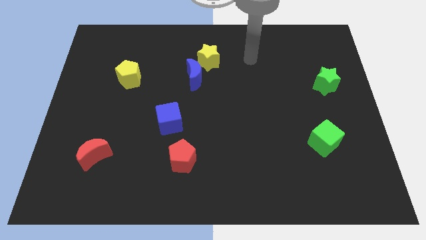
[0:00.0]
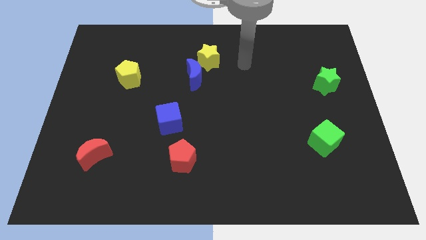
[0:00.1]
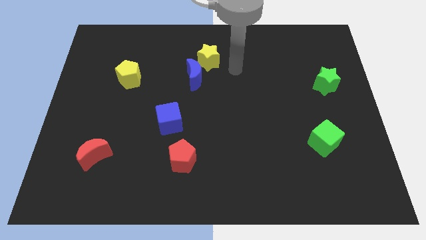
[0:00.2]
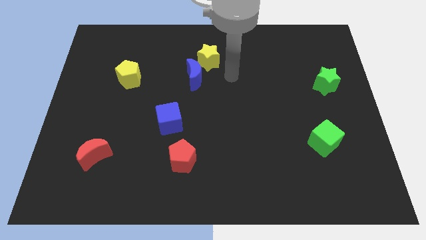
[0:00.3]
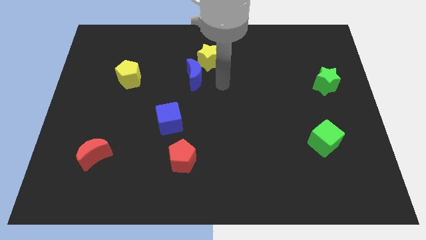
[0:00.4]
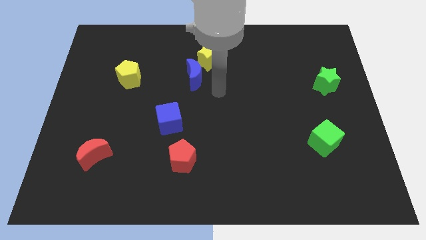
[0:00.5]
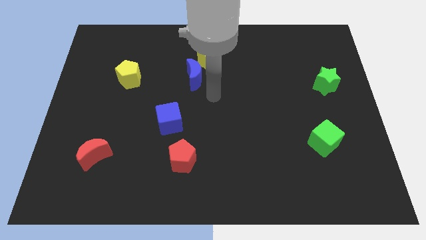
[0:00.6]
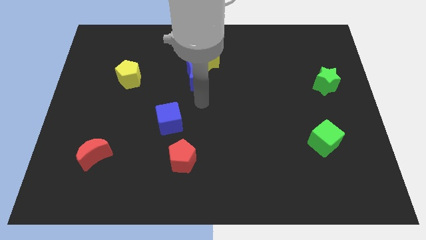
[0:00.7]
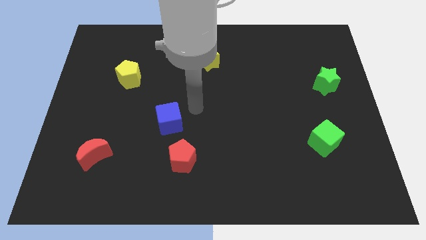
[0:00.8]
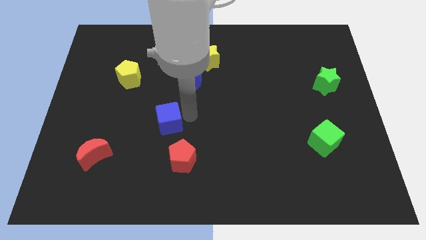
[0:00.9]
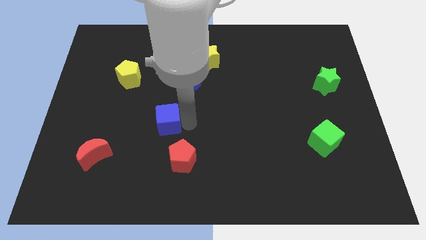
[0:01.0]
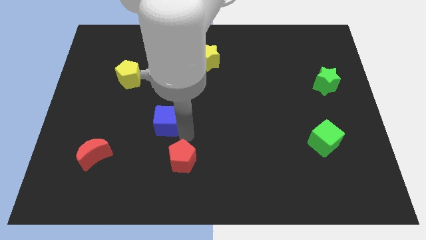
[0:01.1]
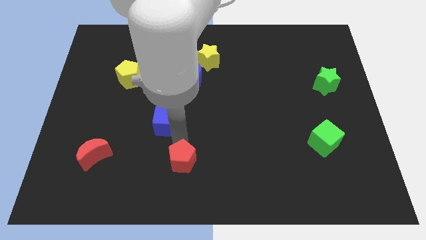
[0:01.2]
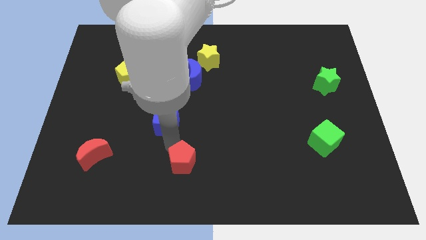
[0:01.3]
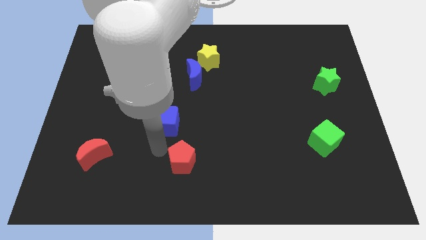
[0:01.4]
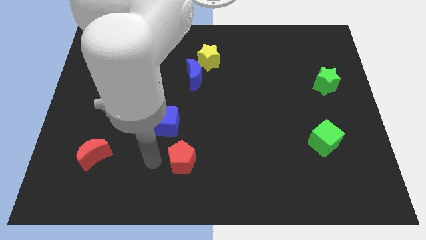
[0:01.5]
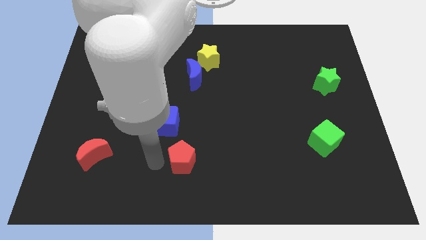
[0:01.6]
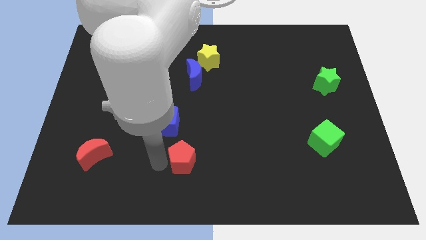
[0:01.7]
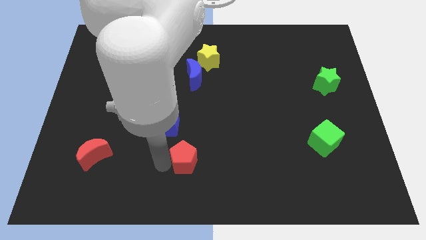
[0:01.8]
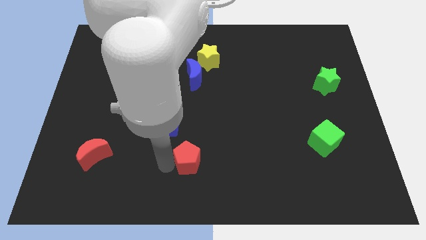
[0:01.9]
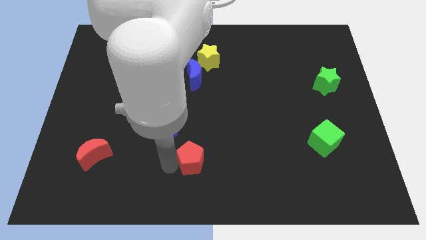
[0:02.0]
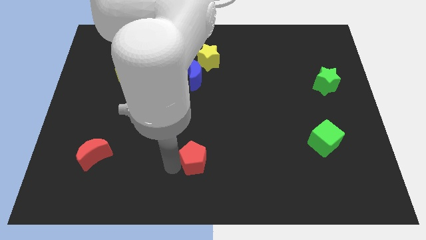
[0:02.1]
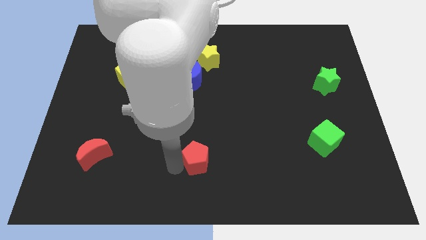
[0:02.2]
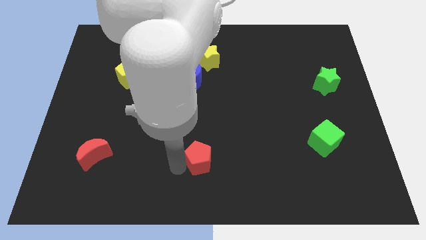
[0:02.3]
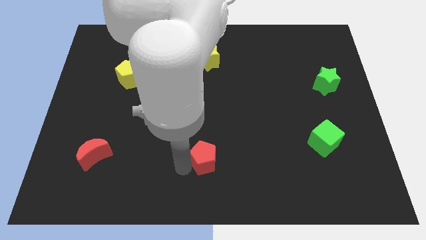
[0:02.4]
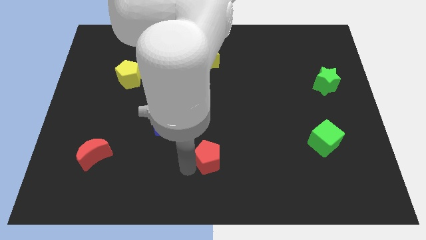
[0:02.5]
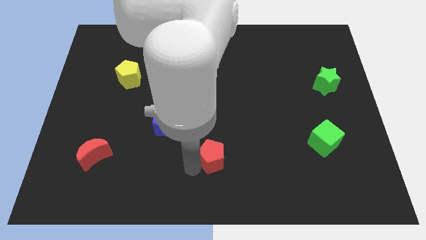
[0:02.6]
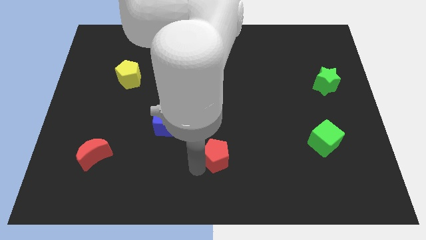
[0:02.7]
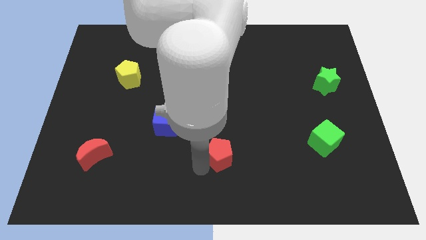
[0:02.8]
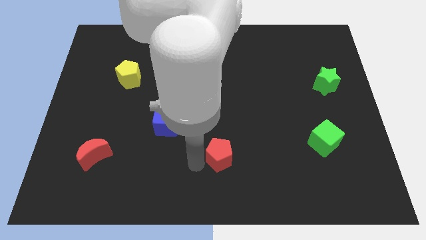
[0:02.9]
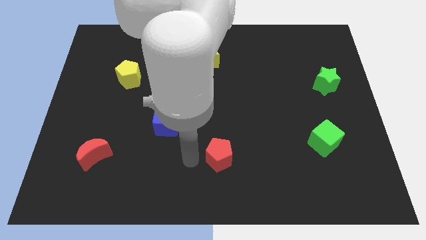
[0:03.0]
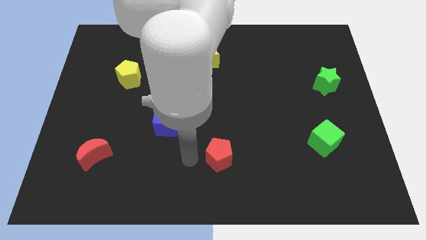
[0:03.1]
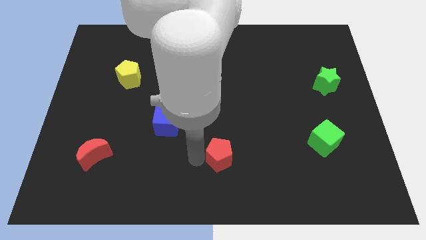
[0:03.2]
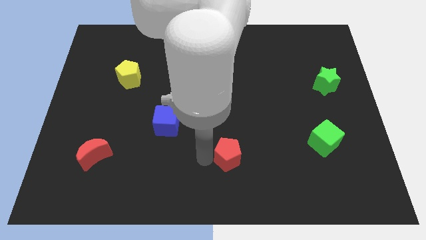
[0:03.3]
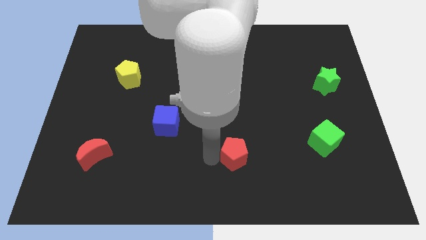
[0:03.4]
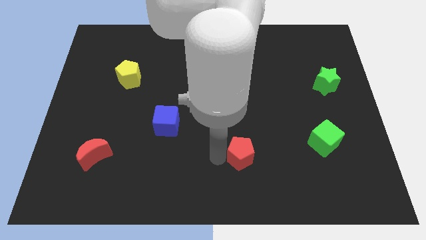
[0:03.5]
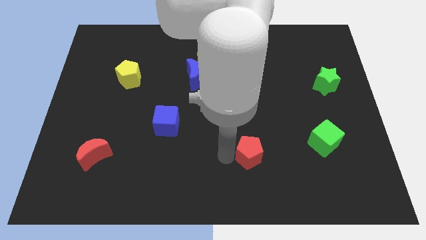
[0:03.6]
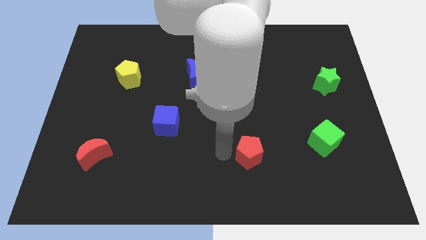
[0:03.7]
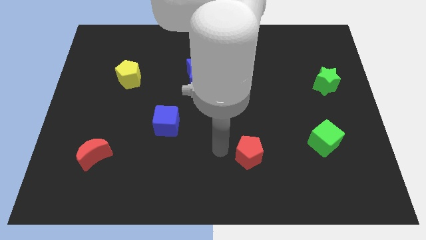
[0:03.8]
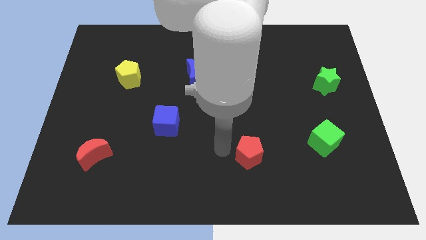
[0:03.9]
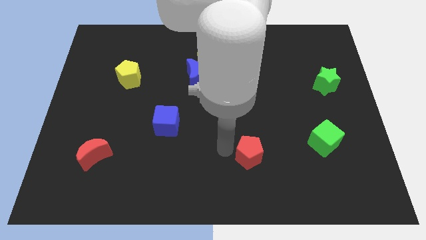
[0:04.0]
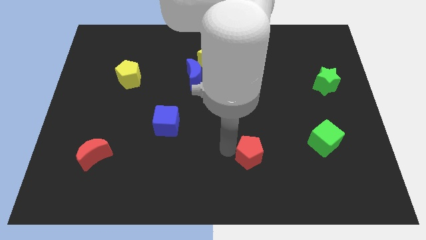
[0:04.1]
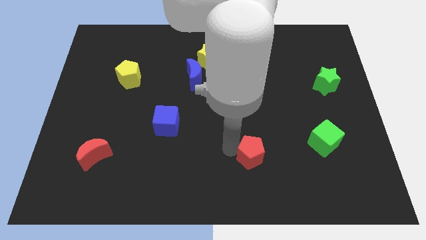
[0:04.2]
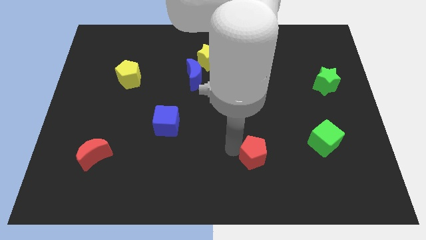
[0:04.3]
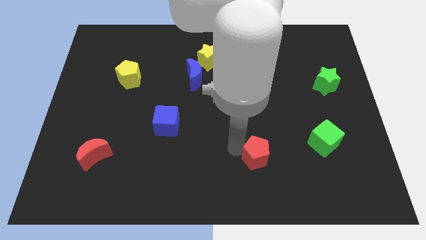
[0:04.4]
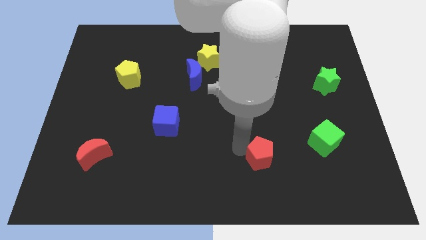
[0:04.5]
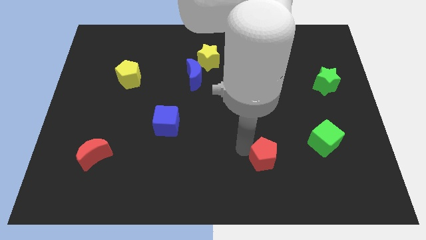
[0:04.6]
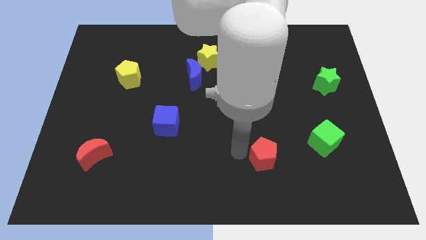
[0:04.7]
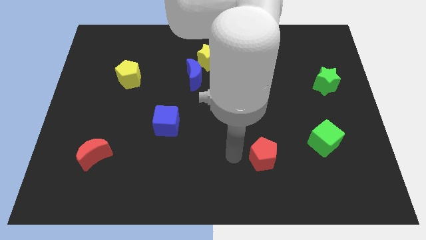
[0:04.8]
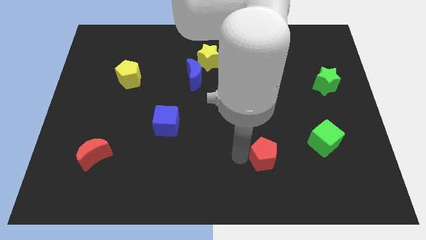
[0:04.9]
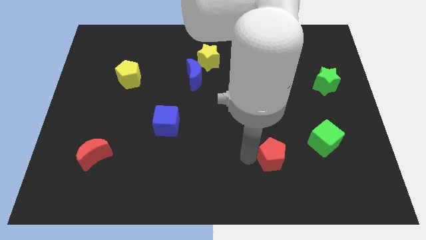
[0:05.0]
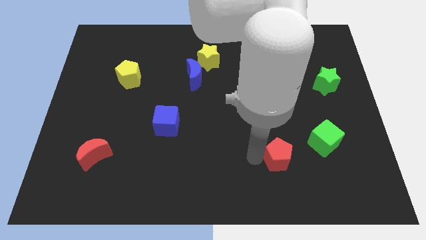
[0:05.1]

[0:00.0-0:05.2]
move the red pentagon to the right

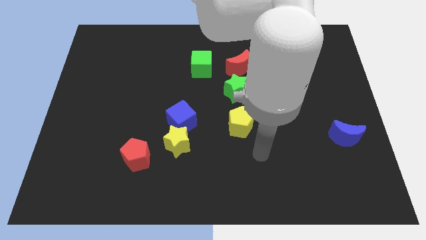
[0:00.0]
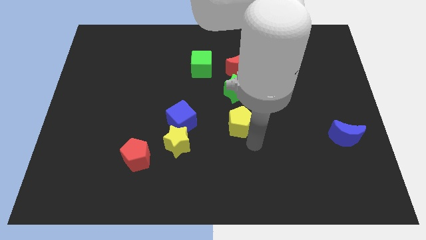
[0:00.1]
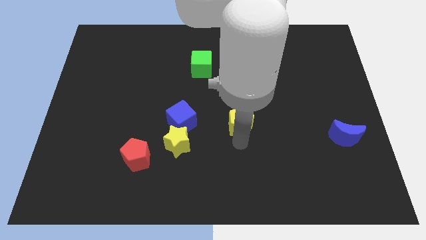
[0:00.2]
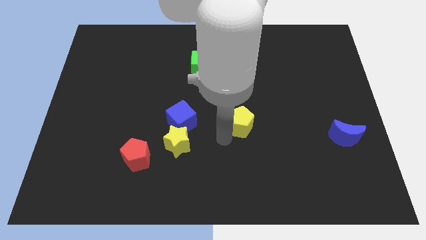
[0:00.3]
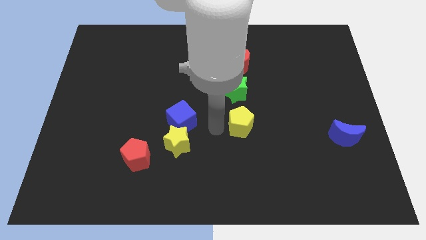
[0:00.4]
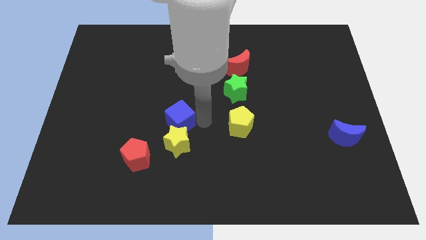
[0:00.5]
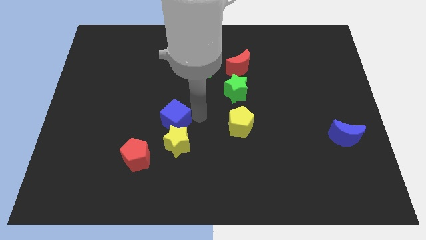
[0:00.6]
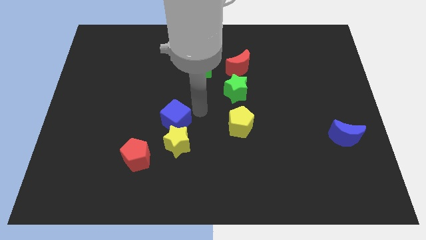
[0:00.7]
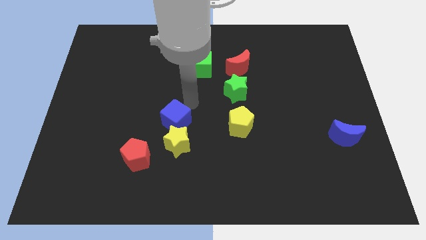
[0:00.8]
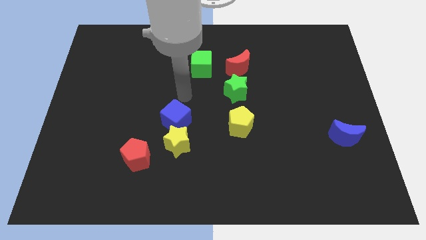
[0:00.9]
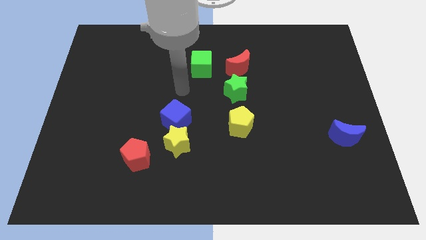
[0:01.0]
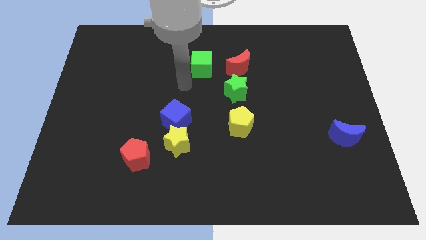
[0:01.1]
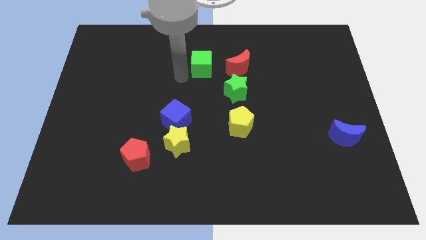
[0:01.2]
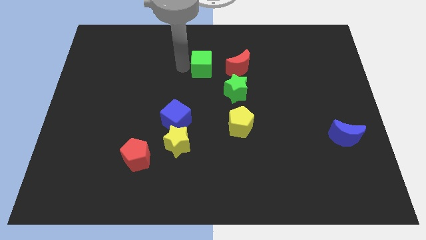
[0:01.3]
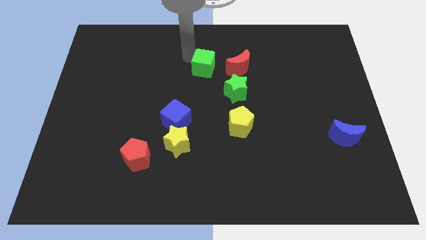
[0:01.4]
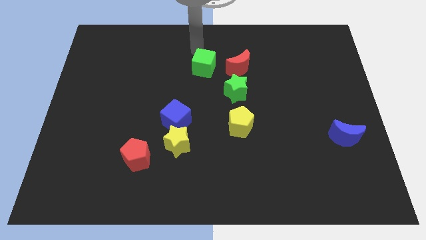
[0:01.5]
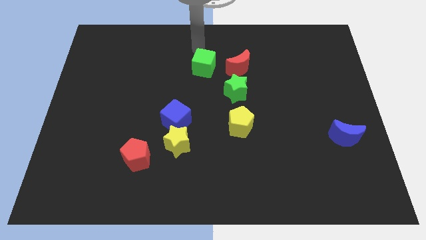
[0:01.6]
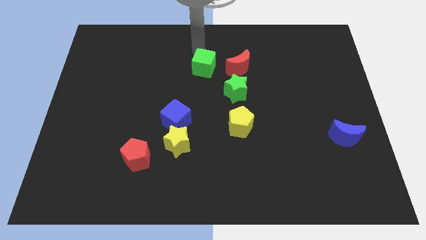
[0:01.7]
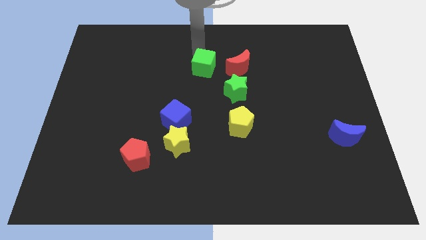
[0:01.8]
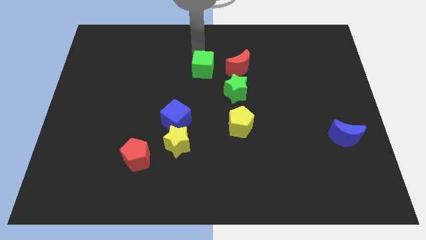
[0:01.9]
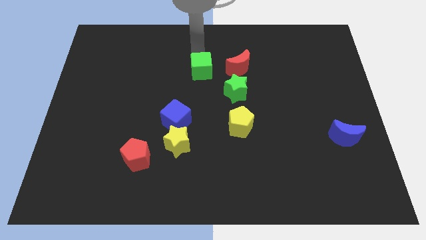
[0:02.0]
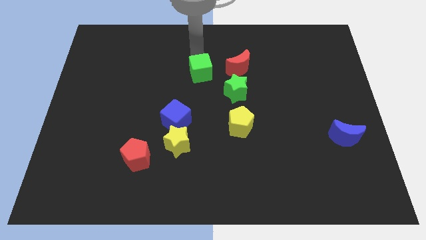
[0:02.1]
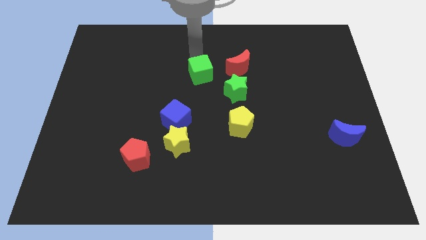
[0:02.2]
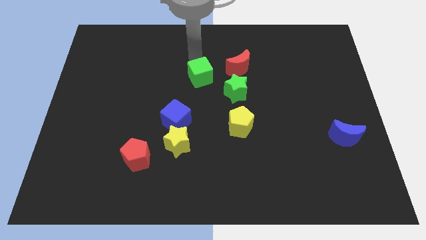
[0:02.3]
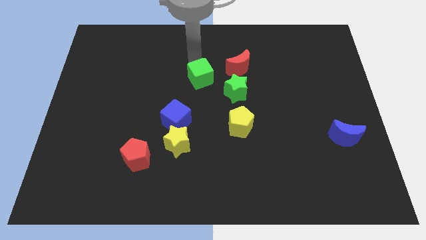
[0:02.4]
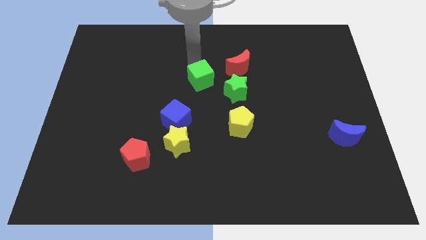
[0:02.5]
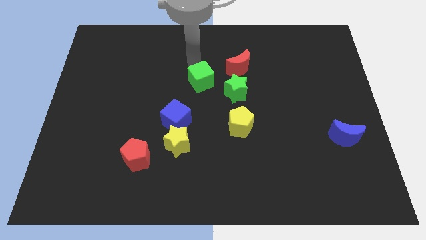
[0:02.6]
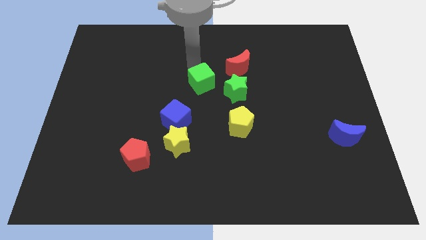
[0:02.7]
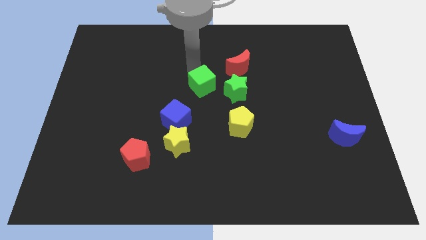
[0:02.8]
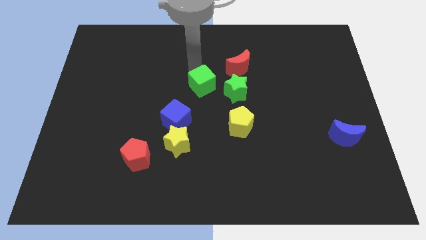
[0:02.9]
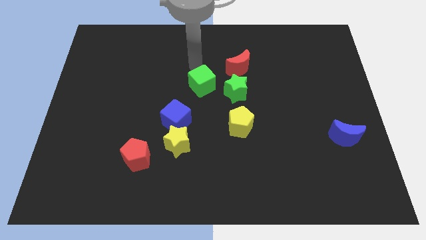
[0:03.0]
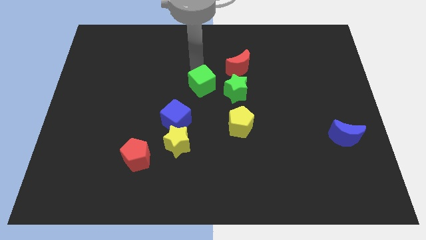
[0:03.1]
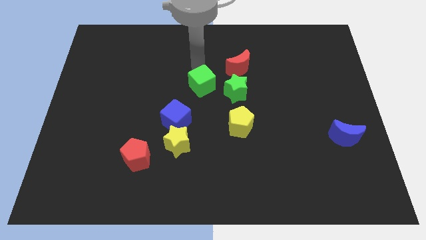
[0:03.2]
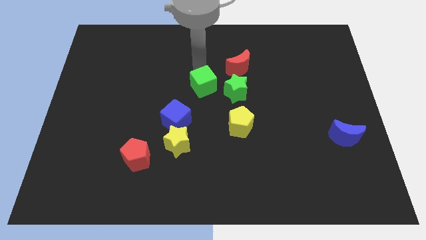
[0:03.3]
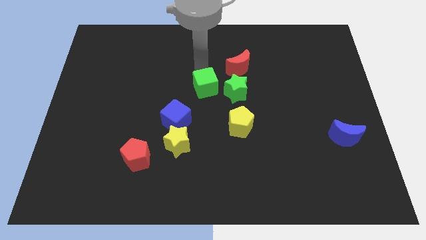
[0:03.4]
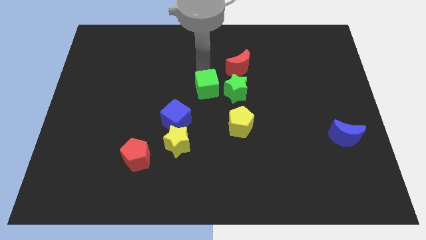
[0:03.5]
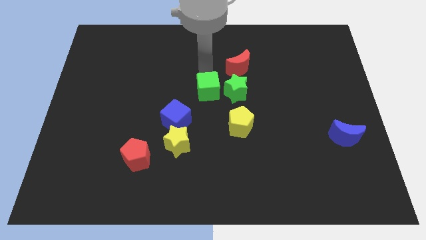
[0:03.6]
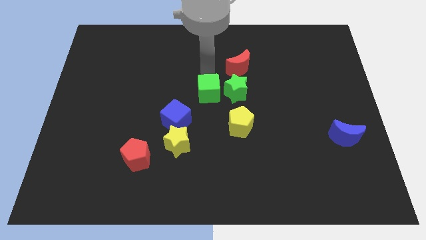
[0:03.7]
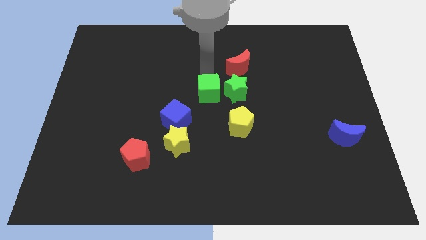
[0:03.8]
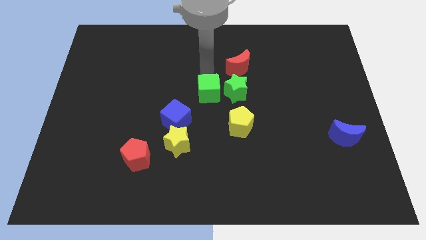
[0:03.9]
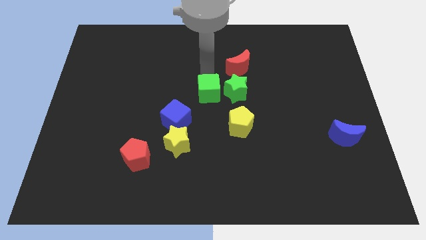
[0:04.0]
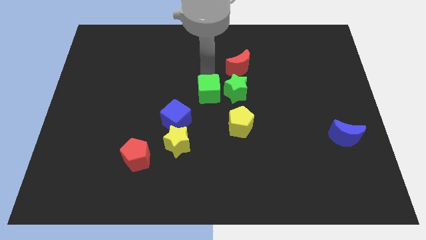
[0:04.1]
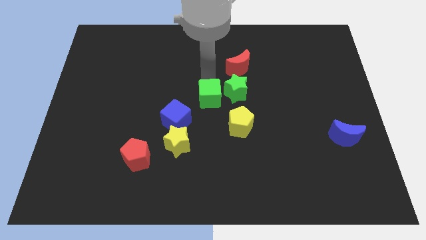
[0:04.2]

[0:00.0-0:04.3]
move the green cube a little downwards and to the right diagonally
